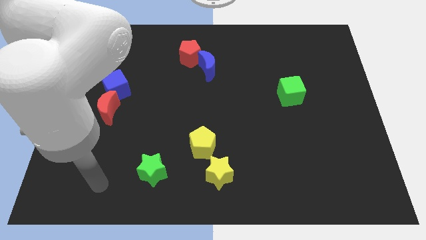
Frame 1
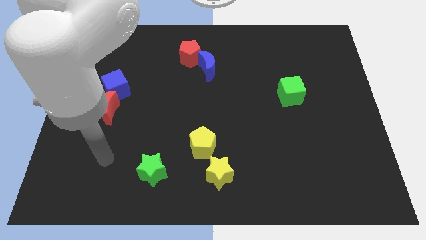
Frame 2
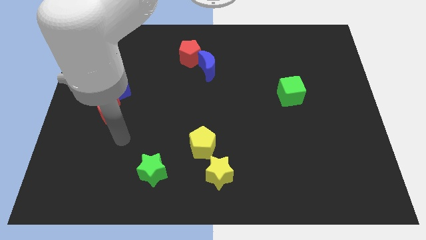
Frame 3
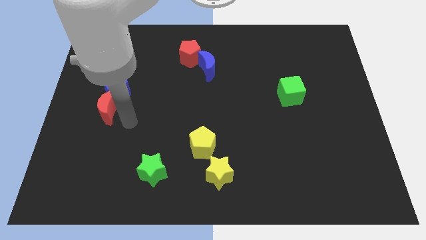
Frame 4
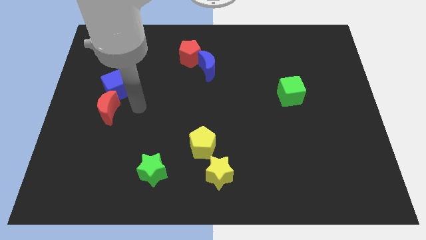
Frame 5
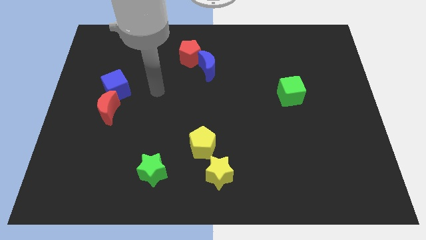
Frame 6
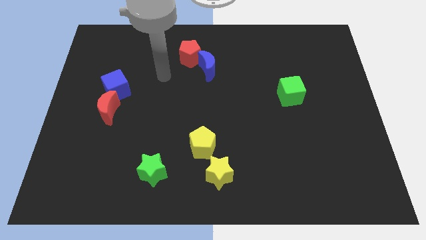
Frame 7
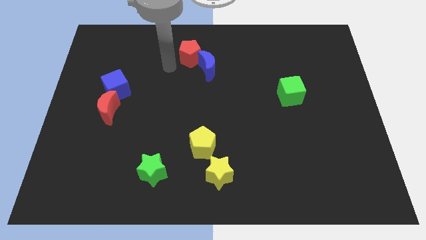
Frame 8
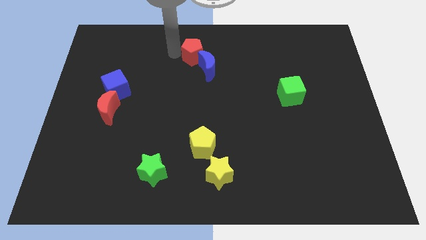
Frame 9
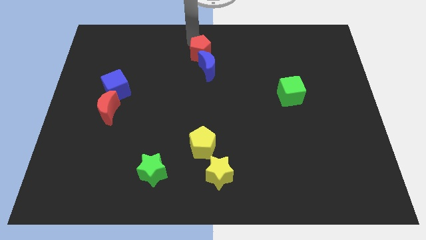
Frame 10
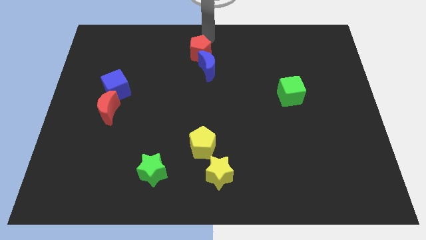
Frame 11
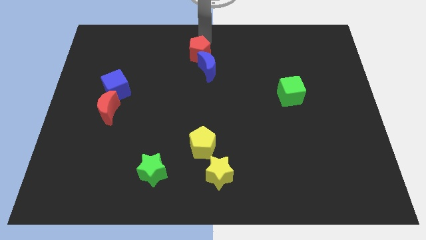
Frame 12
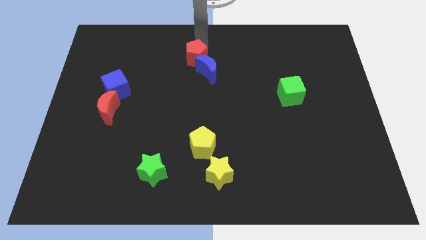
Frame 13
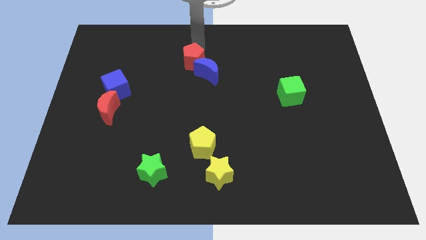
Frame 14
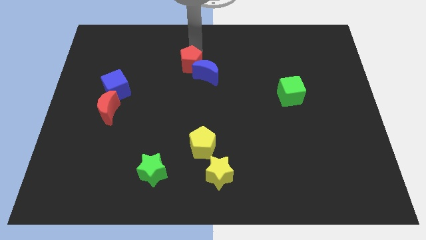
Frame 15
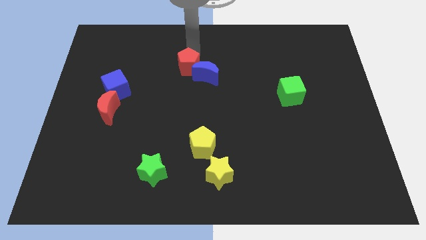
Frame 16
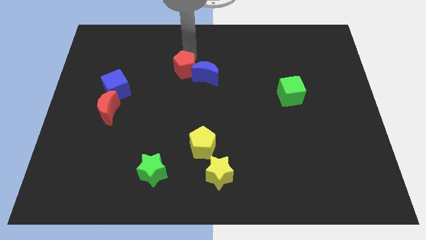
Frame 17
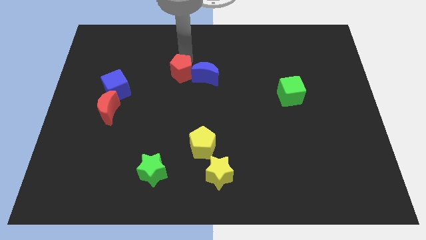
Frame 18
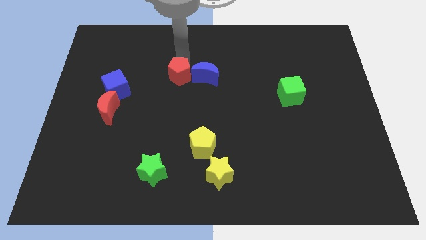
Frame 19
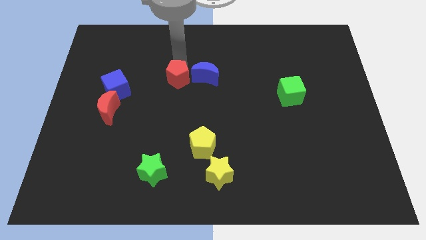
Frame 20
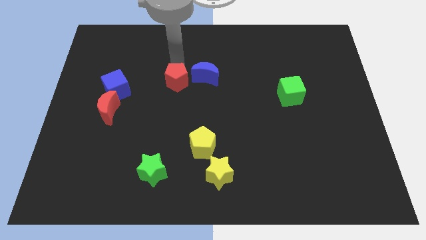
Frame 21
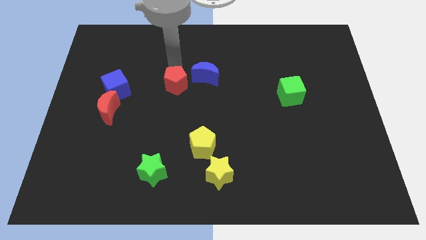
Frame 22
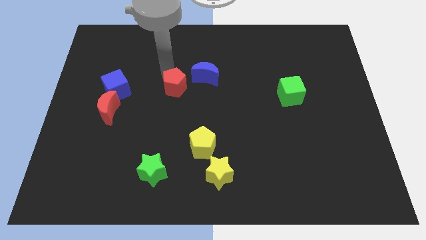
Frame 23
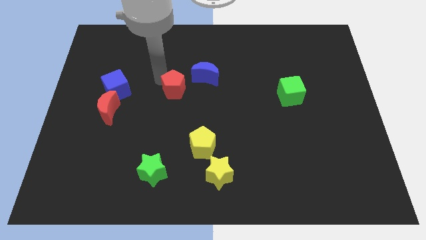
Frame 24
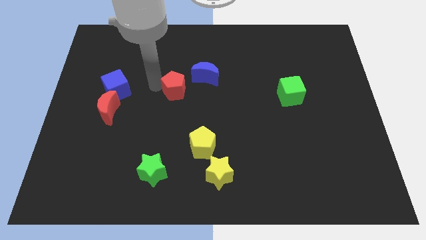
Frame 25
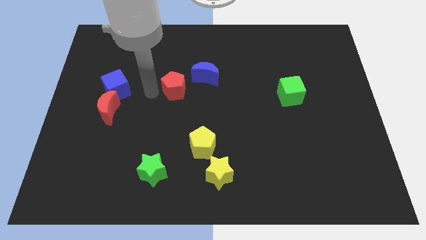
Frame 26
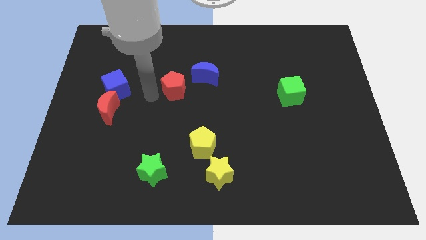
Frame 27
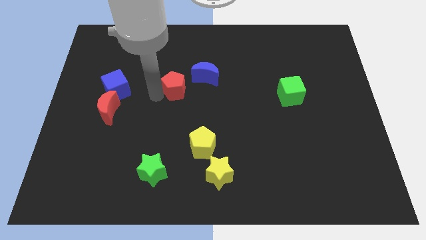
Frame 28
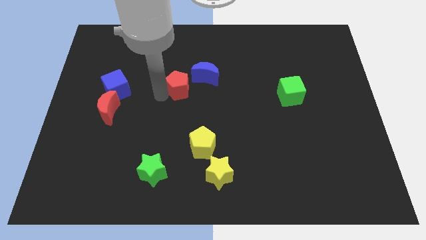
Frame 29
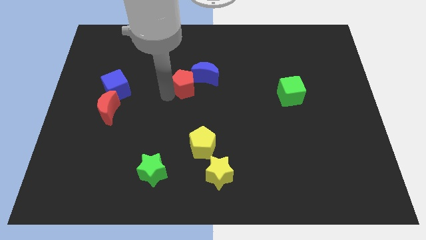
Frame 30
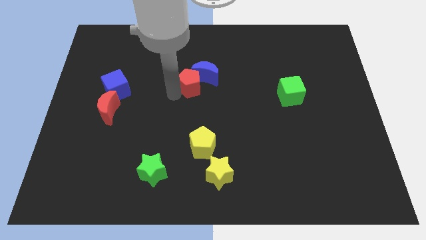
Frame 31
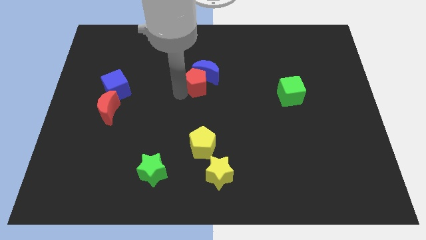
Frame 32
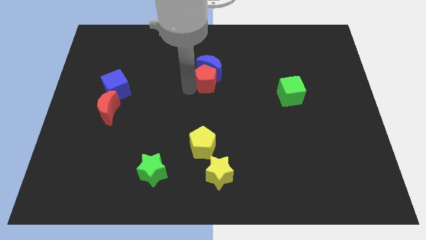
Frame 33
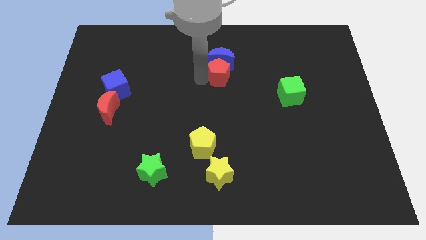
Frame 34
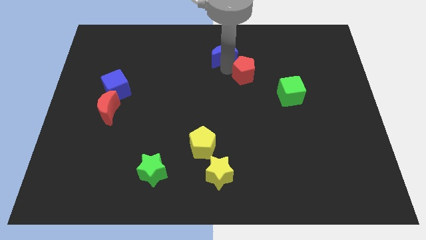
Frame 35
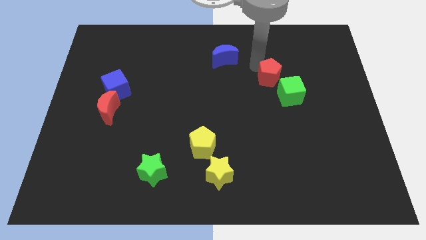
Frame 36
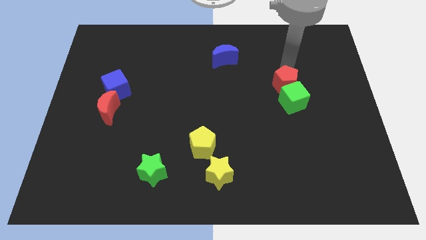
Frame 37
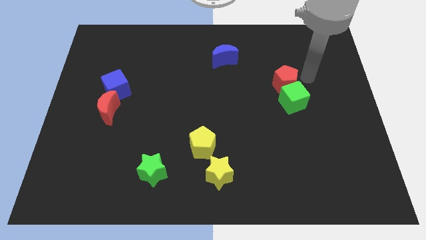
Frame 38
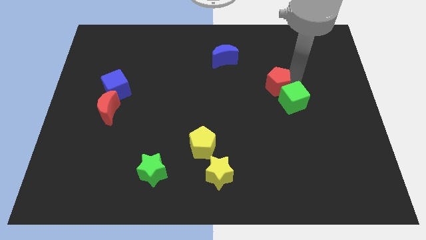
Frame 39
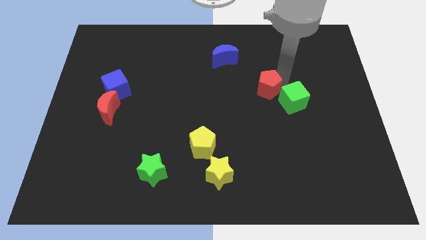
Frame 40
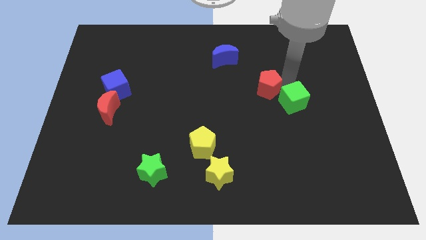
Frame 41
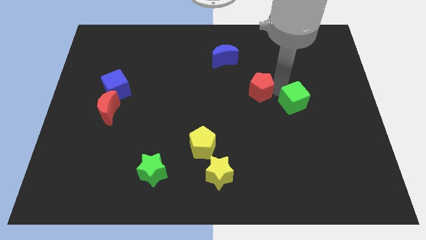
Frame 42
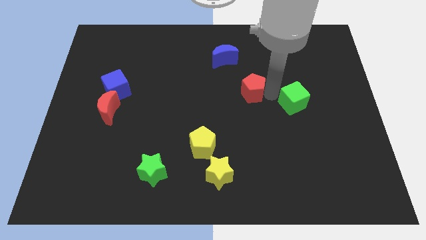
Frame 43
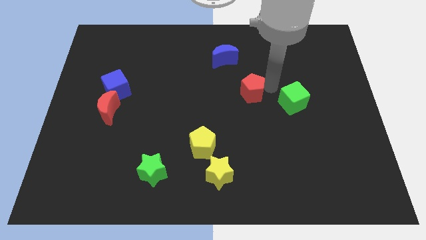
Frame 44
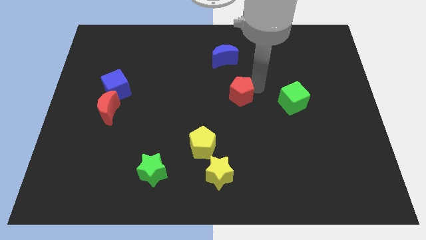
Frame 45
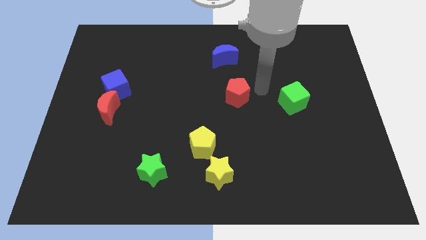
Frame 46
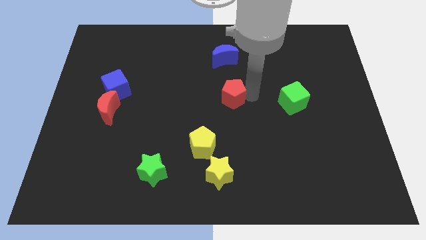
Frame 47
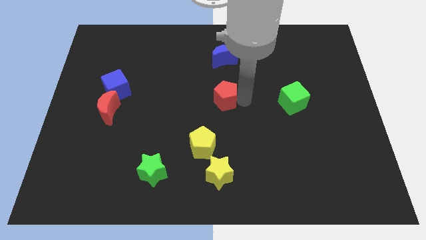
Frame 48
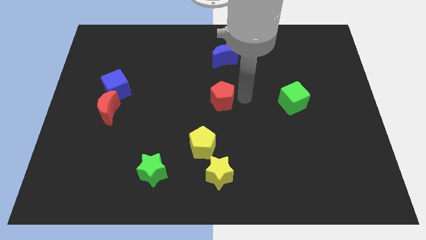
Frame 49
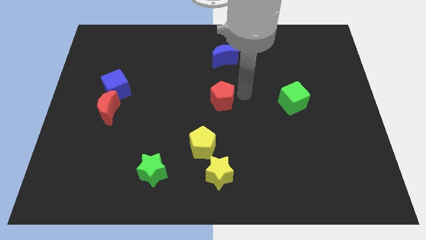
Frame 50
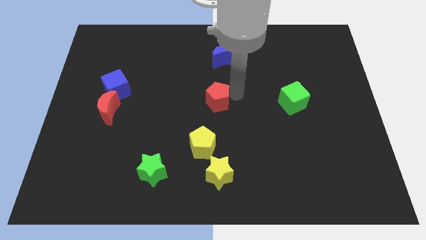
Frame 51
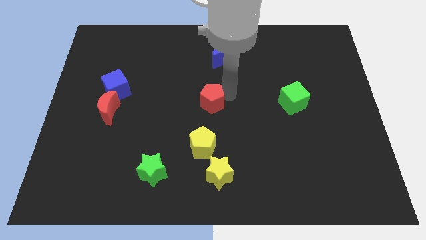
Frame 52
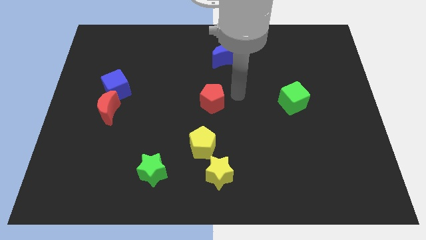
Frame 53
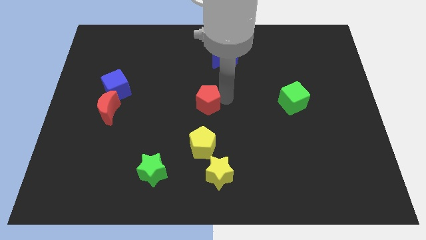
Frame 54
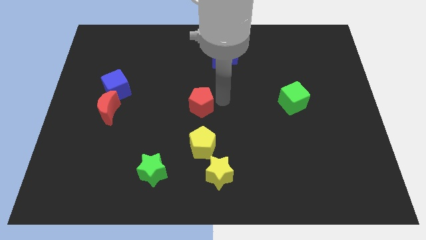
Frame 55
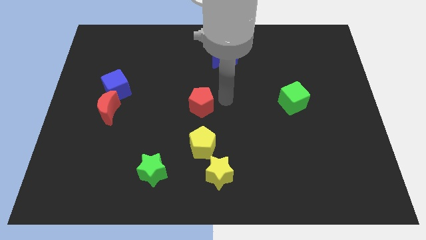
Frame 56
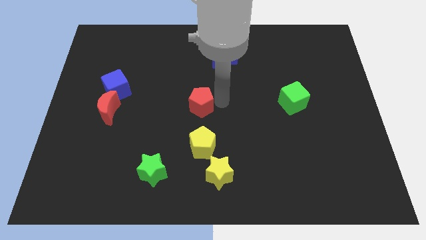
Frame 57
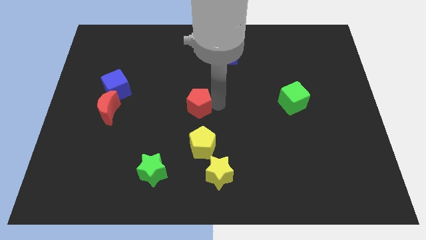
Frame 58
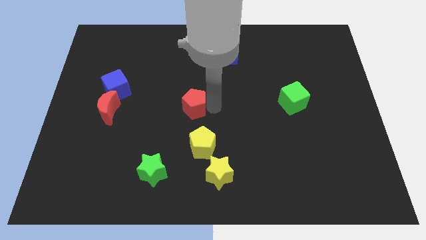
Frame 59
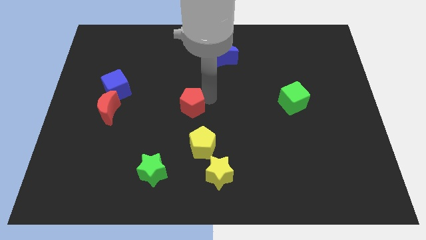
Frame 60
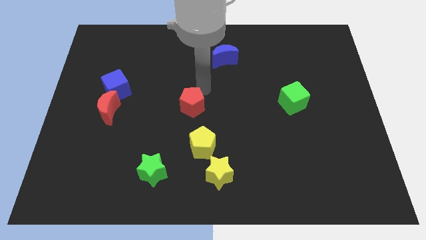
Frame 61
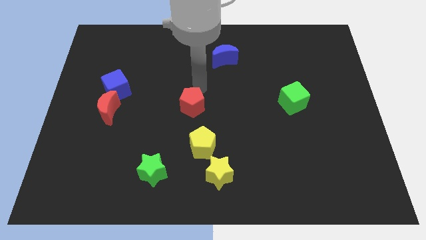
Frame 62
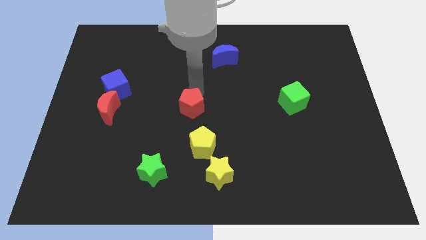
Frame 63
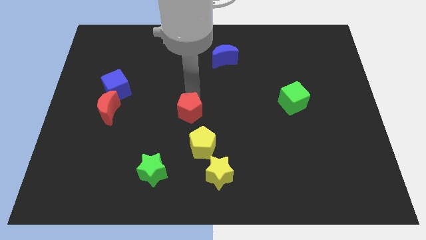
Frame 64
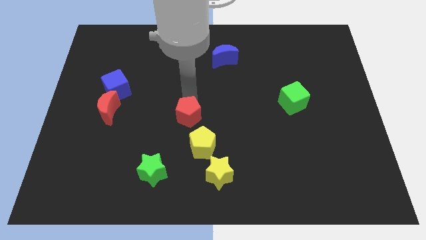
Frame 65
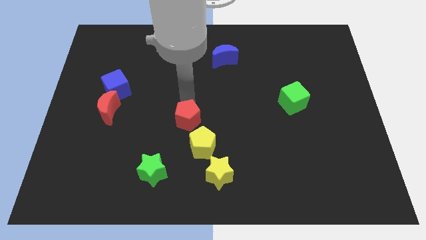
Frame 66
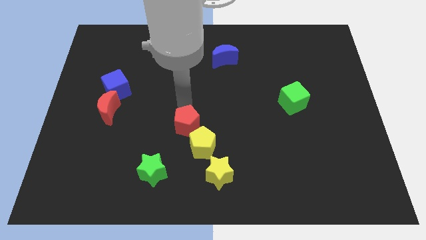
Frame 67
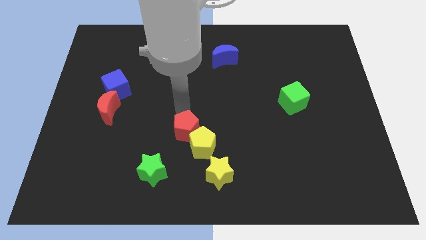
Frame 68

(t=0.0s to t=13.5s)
slide the red pentagon to the top right of the green star
